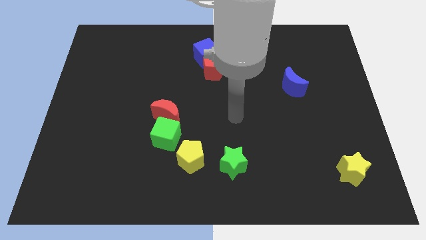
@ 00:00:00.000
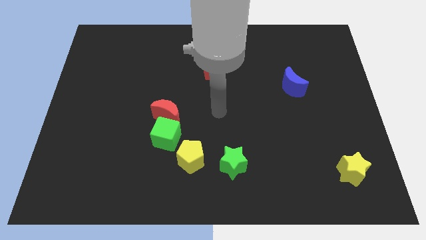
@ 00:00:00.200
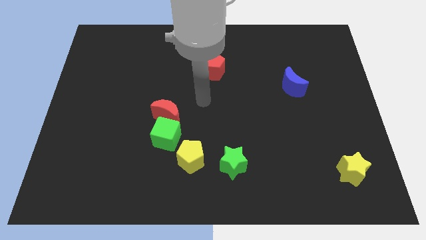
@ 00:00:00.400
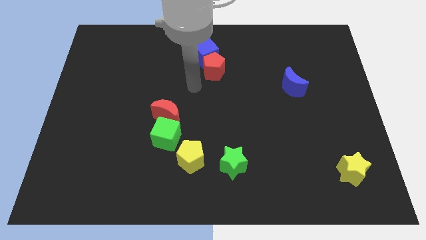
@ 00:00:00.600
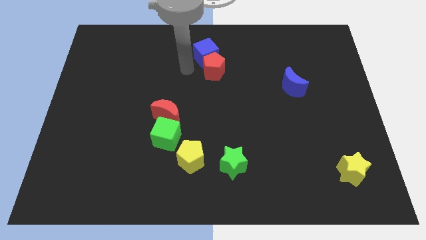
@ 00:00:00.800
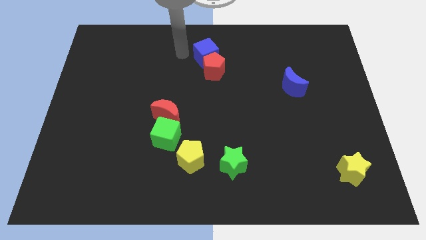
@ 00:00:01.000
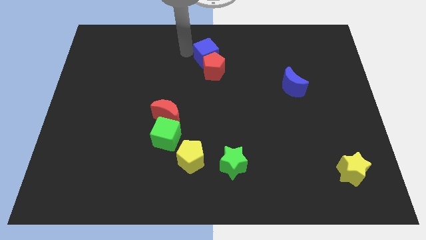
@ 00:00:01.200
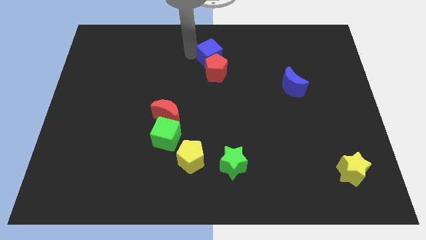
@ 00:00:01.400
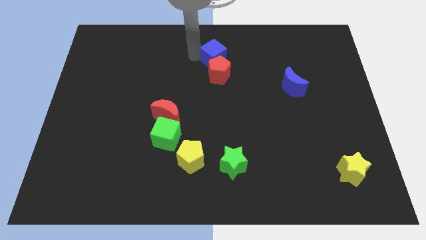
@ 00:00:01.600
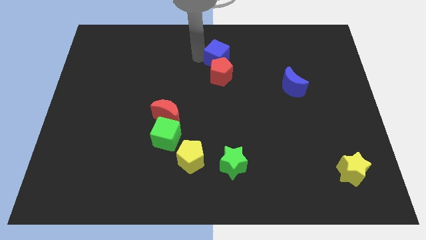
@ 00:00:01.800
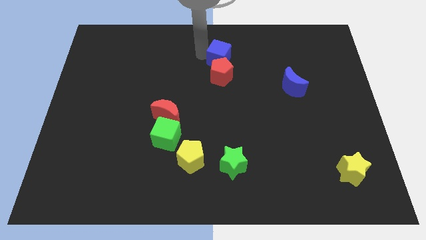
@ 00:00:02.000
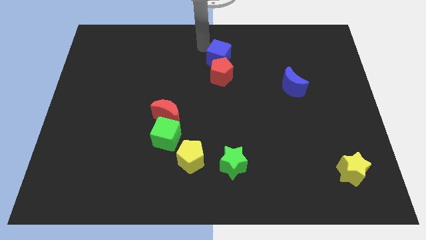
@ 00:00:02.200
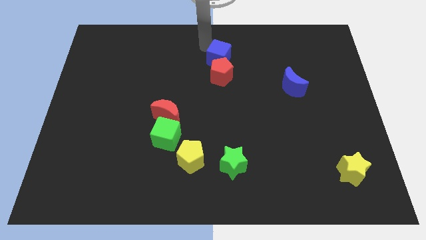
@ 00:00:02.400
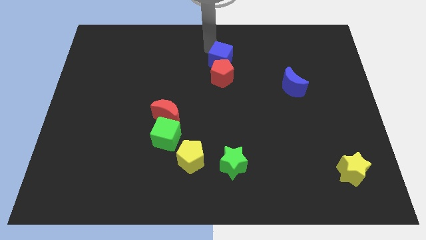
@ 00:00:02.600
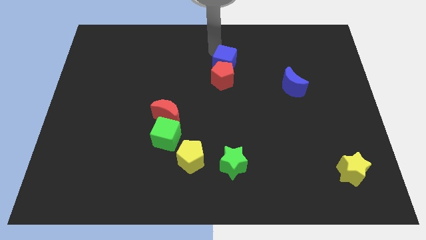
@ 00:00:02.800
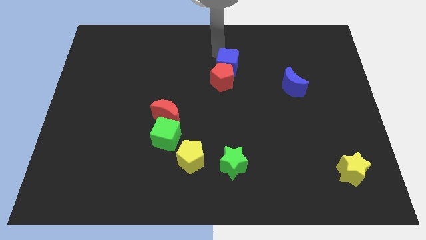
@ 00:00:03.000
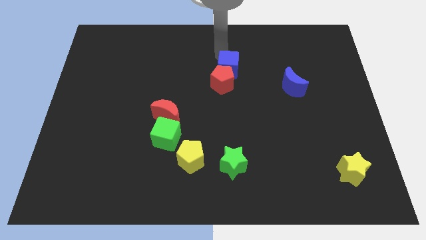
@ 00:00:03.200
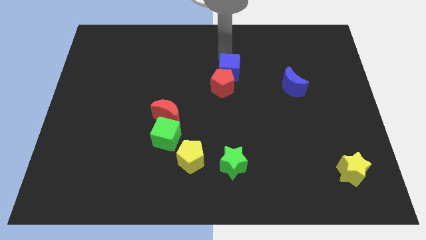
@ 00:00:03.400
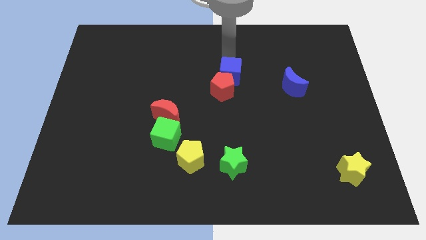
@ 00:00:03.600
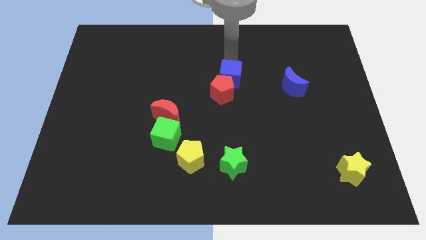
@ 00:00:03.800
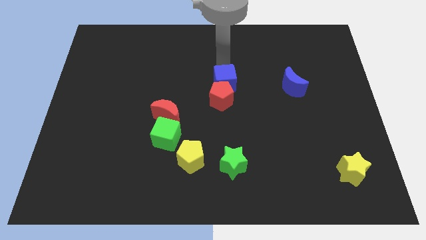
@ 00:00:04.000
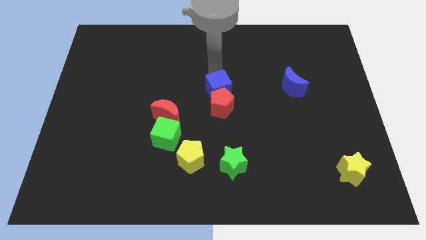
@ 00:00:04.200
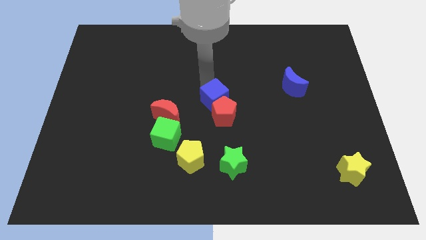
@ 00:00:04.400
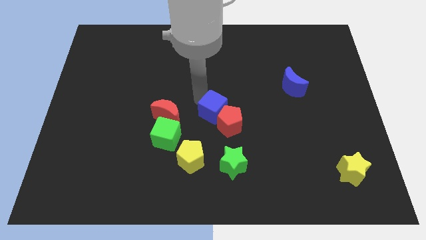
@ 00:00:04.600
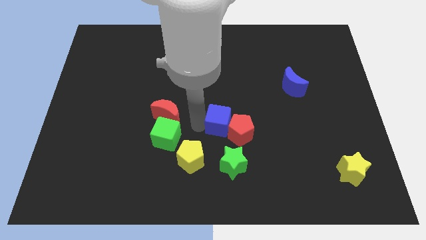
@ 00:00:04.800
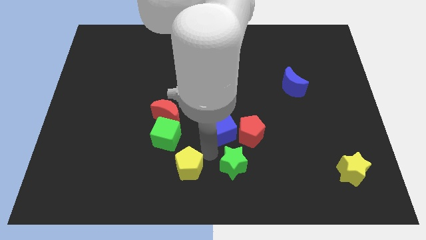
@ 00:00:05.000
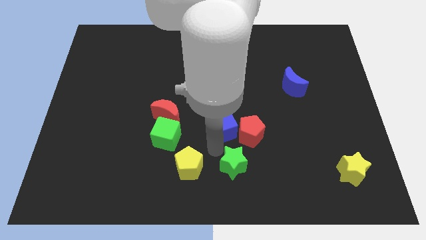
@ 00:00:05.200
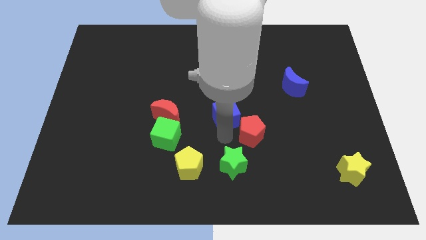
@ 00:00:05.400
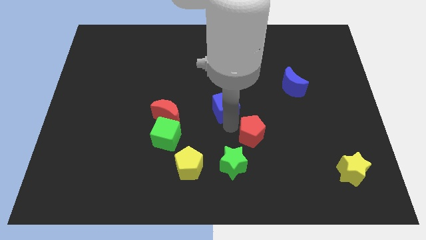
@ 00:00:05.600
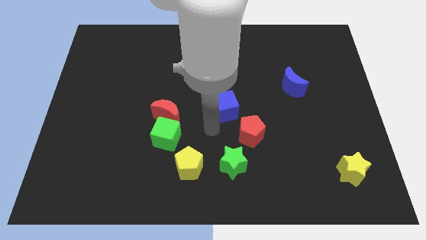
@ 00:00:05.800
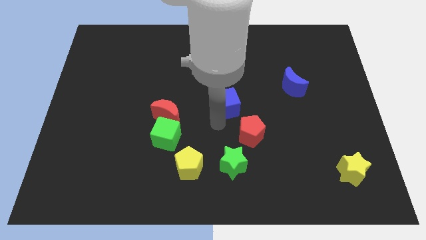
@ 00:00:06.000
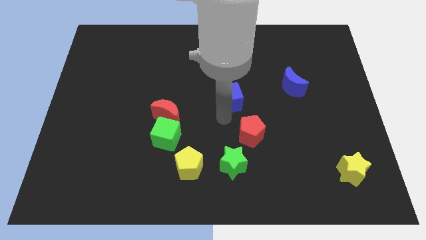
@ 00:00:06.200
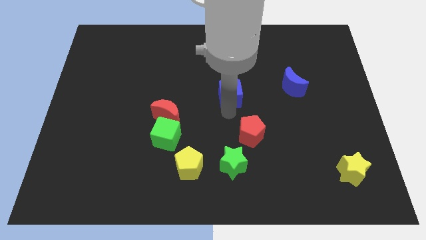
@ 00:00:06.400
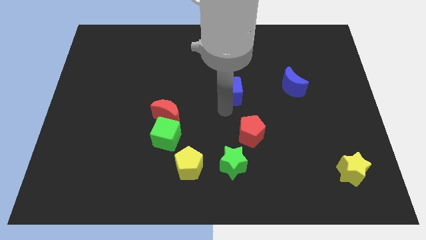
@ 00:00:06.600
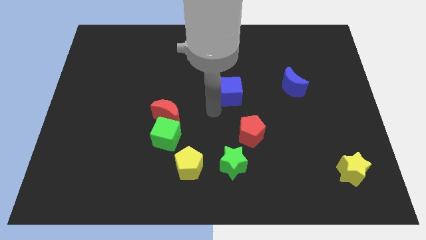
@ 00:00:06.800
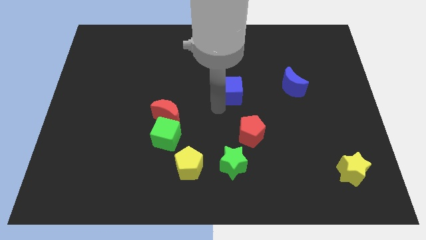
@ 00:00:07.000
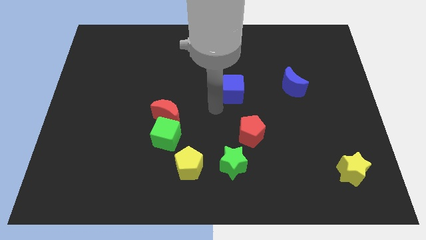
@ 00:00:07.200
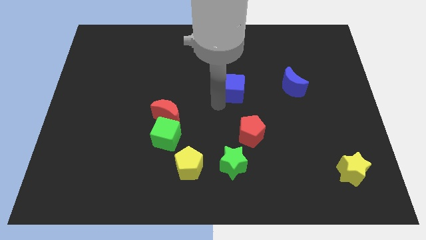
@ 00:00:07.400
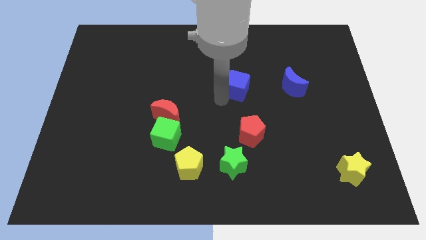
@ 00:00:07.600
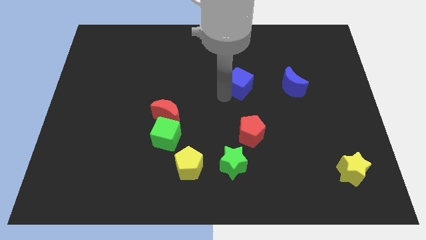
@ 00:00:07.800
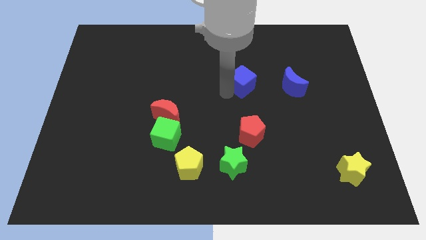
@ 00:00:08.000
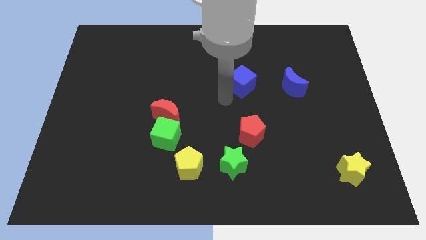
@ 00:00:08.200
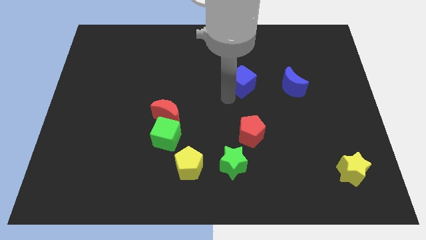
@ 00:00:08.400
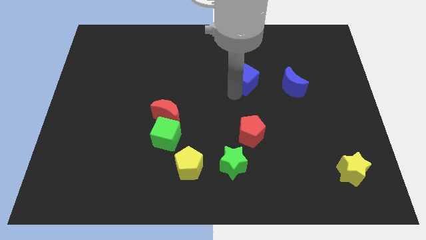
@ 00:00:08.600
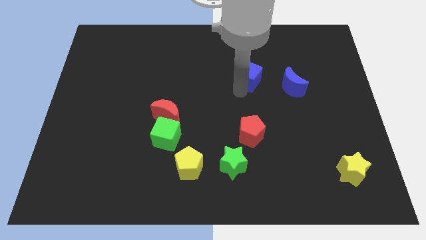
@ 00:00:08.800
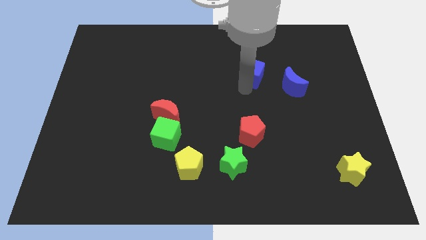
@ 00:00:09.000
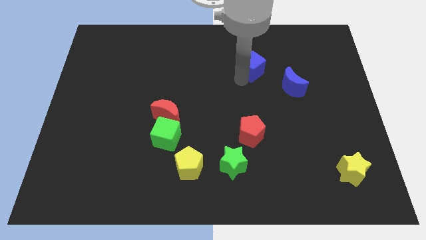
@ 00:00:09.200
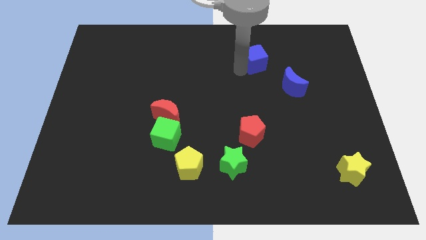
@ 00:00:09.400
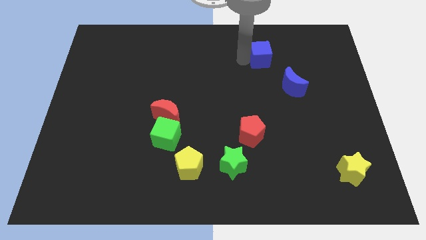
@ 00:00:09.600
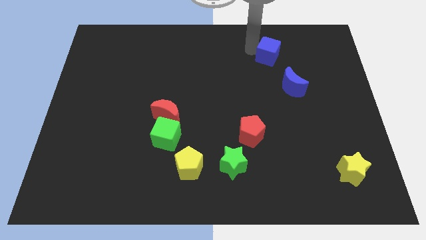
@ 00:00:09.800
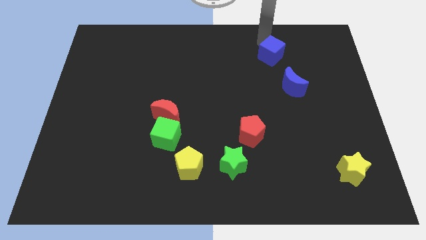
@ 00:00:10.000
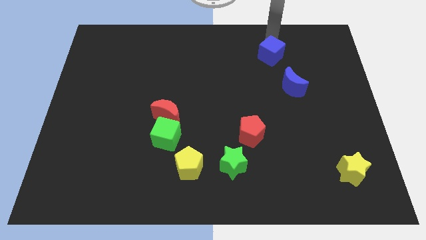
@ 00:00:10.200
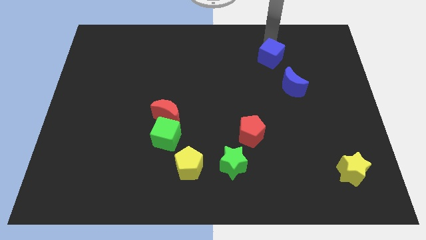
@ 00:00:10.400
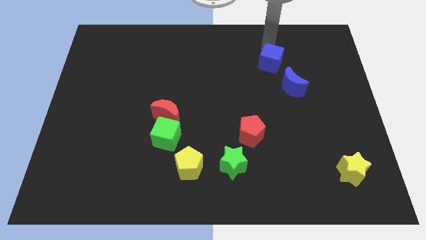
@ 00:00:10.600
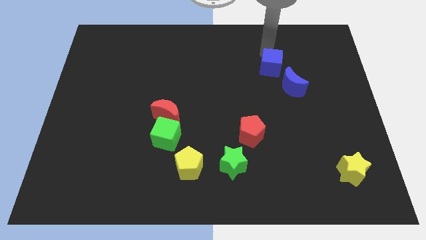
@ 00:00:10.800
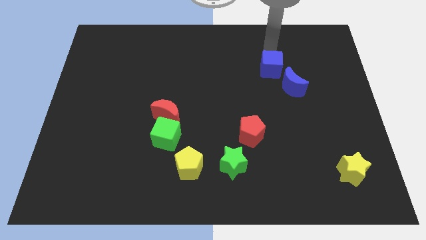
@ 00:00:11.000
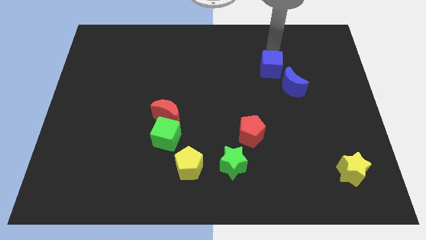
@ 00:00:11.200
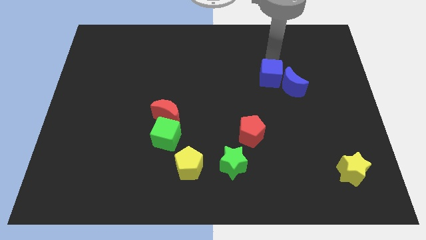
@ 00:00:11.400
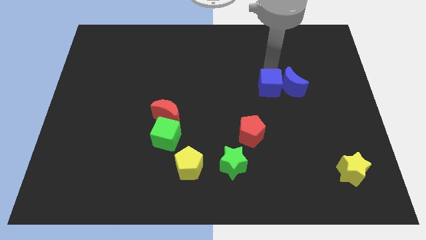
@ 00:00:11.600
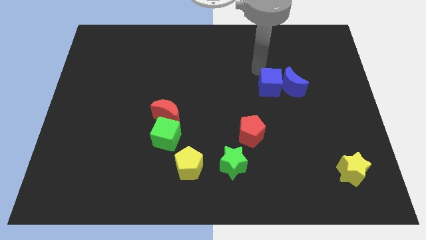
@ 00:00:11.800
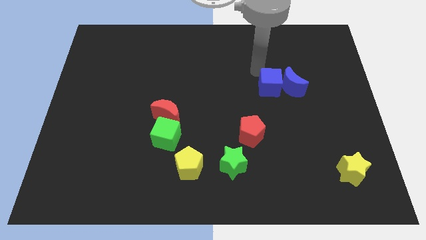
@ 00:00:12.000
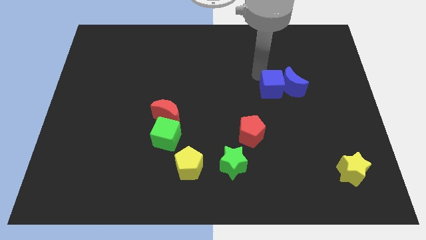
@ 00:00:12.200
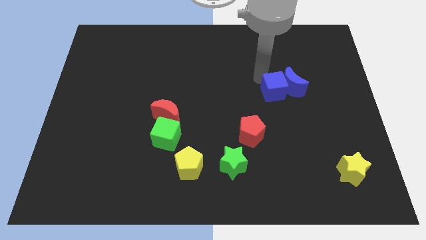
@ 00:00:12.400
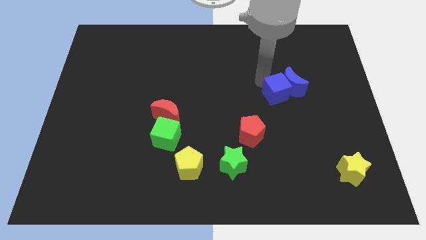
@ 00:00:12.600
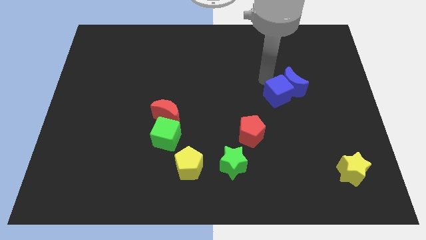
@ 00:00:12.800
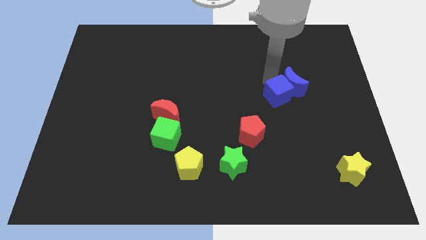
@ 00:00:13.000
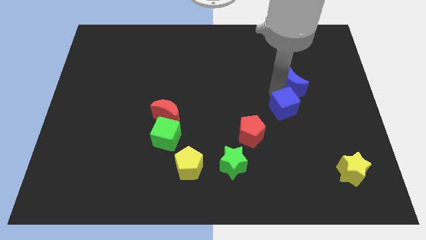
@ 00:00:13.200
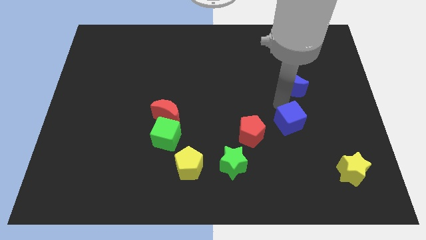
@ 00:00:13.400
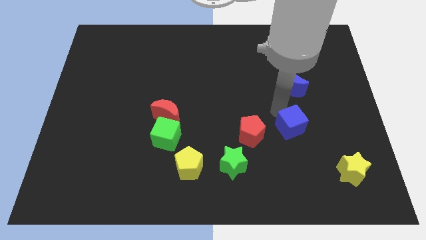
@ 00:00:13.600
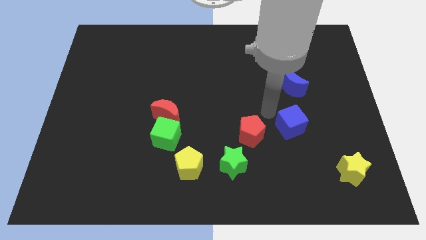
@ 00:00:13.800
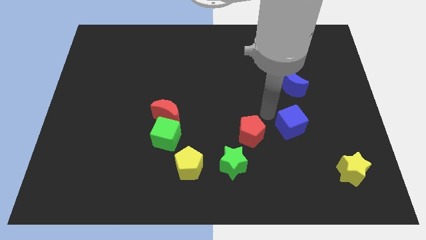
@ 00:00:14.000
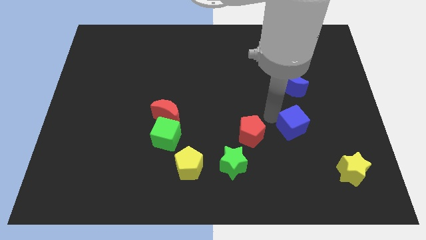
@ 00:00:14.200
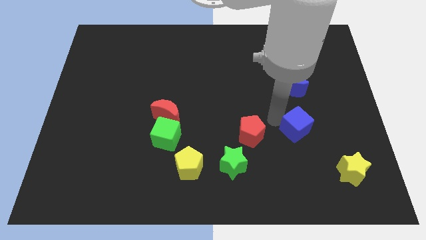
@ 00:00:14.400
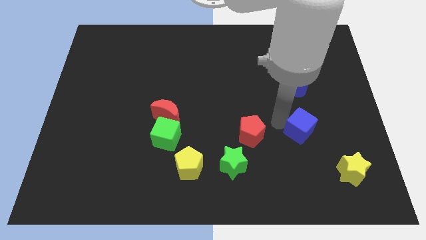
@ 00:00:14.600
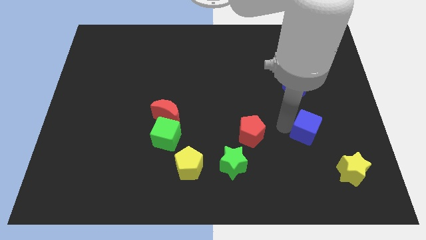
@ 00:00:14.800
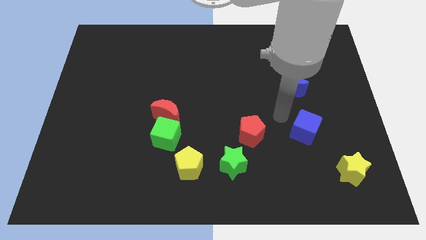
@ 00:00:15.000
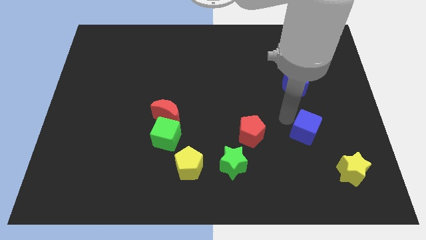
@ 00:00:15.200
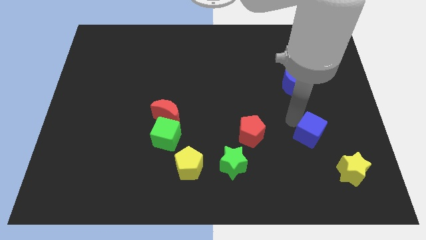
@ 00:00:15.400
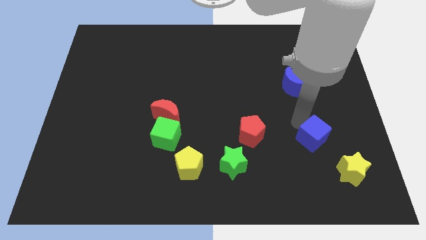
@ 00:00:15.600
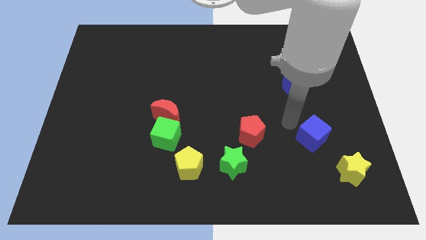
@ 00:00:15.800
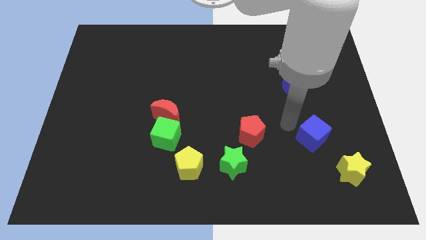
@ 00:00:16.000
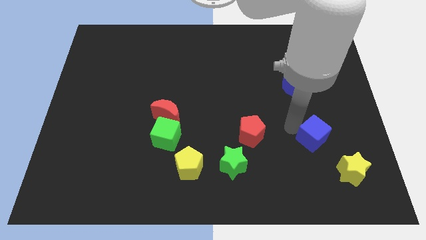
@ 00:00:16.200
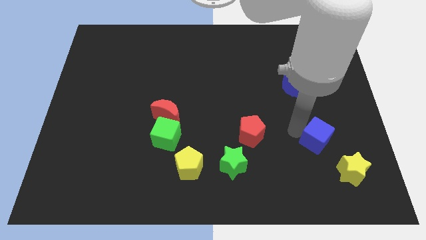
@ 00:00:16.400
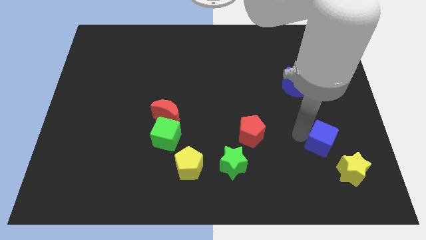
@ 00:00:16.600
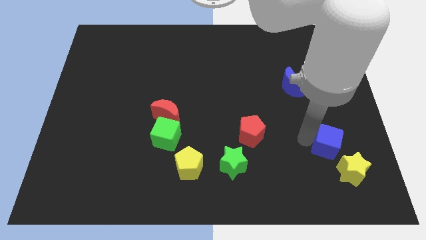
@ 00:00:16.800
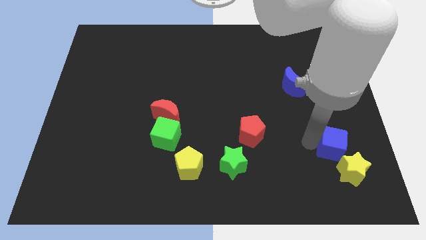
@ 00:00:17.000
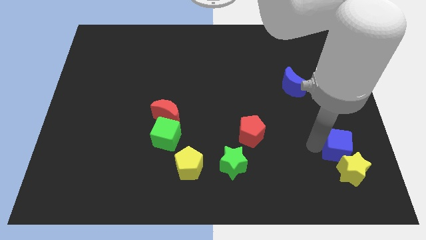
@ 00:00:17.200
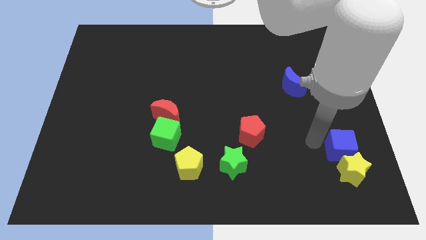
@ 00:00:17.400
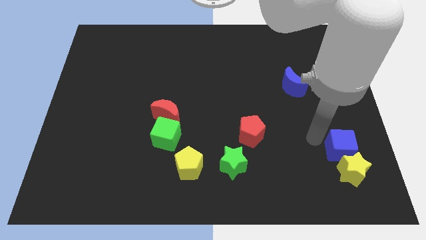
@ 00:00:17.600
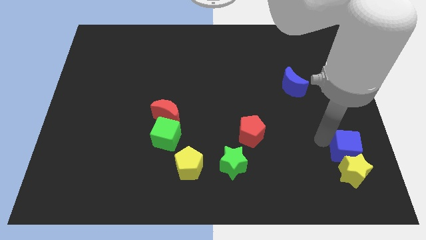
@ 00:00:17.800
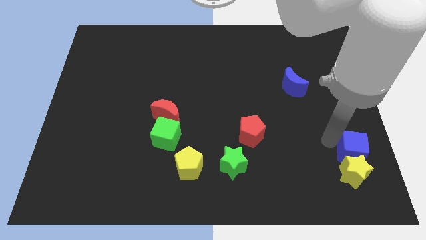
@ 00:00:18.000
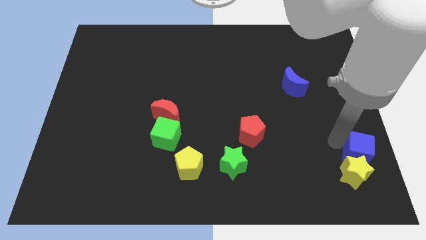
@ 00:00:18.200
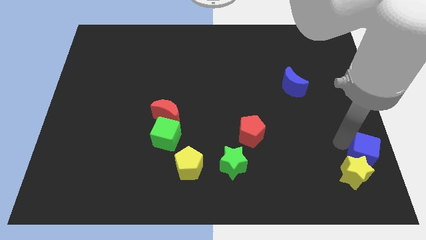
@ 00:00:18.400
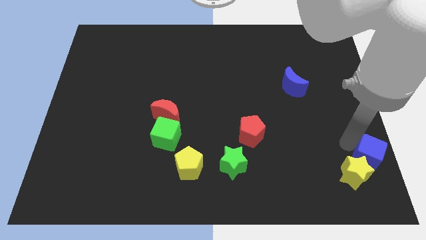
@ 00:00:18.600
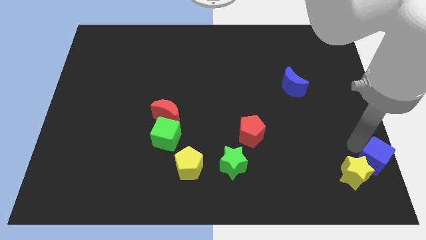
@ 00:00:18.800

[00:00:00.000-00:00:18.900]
move the blue cube to the lower right corner
